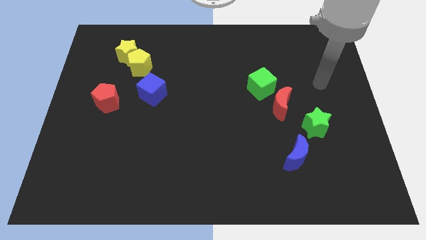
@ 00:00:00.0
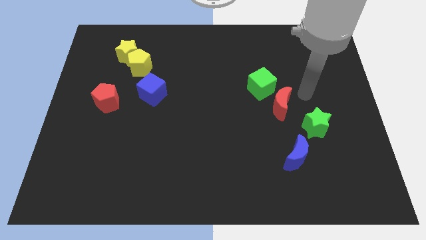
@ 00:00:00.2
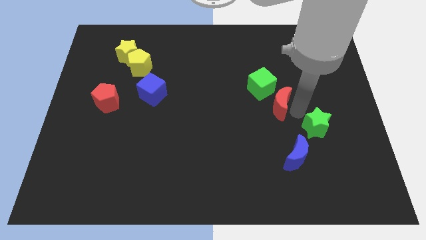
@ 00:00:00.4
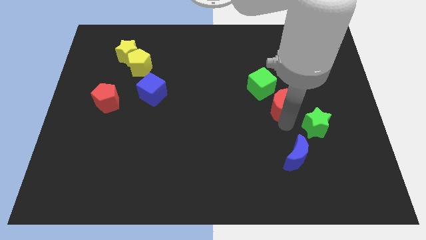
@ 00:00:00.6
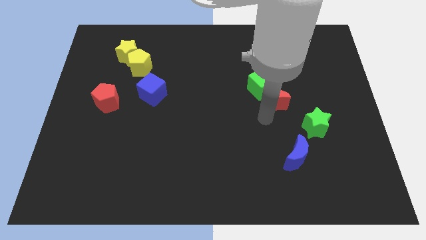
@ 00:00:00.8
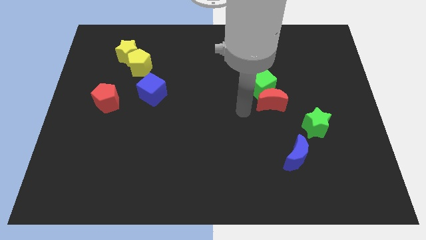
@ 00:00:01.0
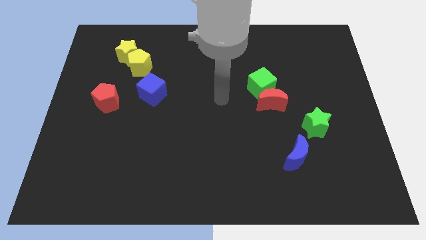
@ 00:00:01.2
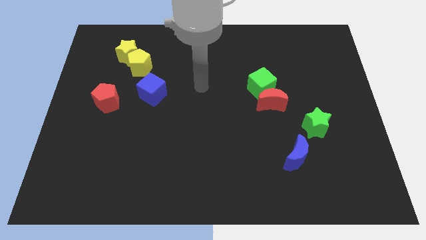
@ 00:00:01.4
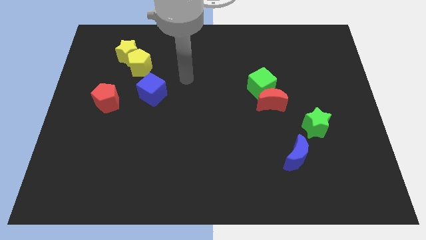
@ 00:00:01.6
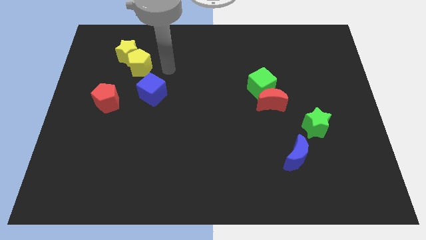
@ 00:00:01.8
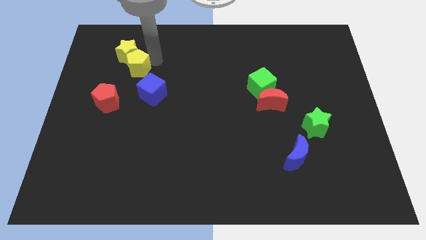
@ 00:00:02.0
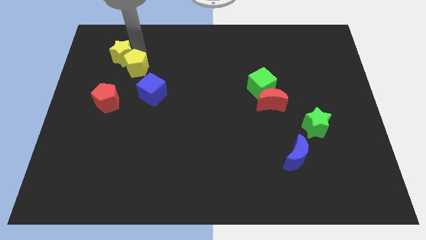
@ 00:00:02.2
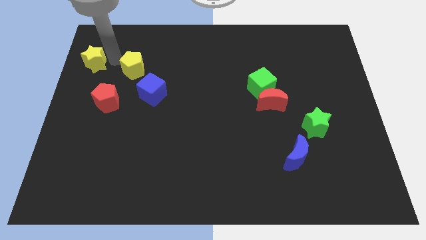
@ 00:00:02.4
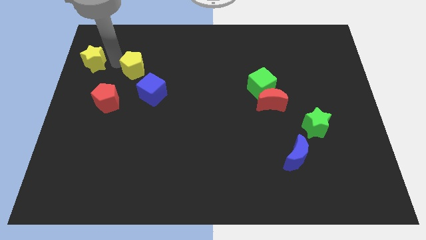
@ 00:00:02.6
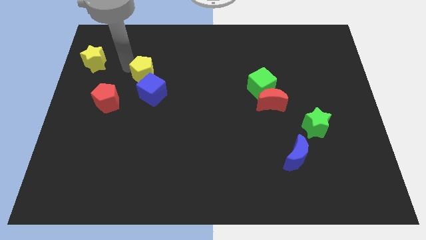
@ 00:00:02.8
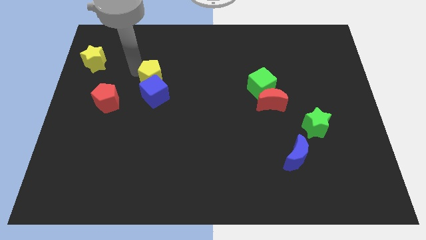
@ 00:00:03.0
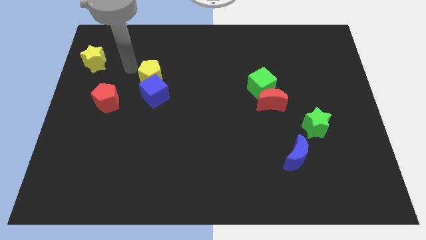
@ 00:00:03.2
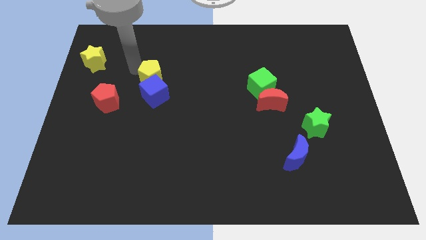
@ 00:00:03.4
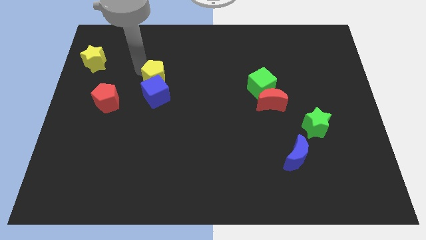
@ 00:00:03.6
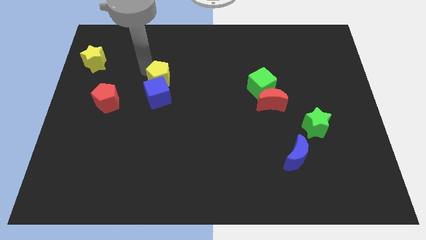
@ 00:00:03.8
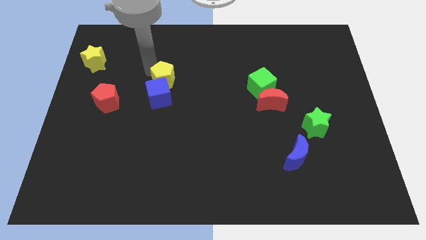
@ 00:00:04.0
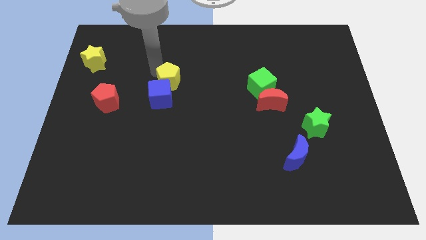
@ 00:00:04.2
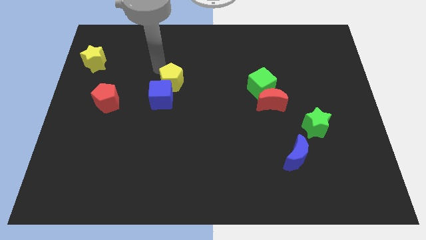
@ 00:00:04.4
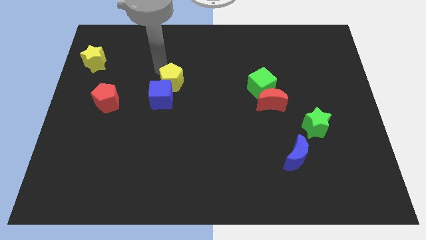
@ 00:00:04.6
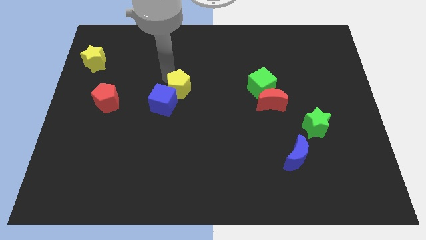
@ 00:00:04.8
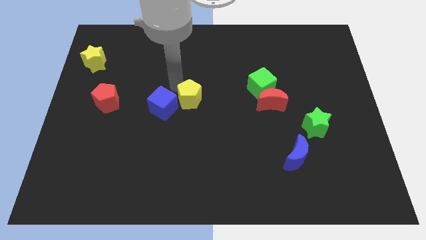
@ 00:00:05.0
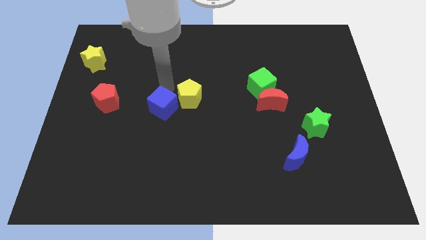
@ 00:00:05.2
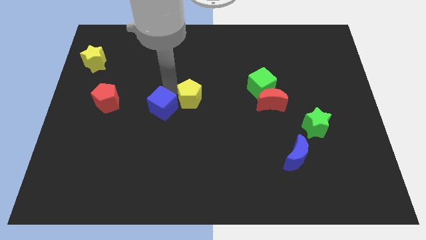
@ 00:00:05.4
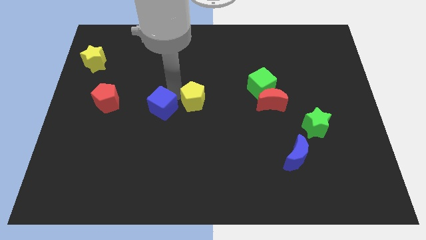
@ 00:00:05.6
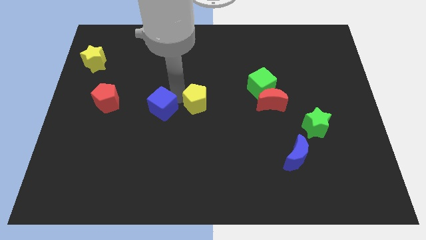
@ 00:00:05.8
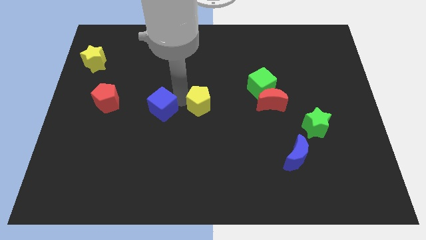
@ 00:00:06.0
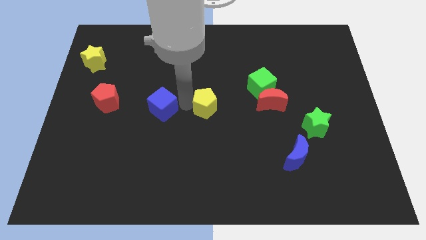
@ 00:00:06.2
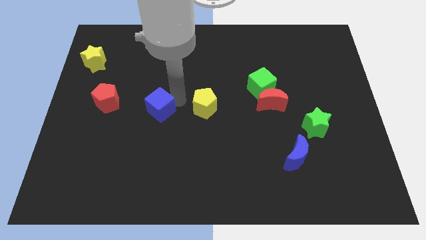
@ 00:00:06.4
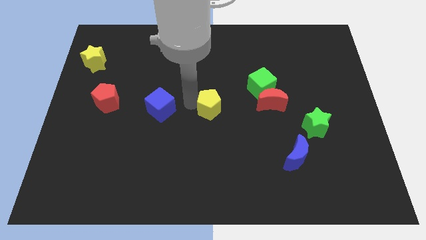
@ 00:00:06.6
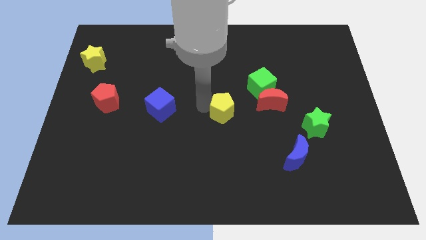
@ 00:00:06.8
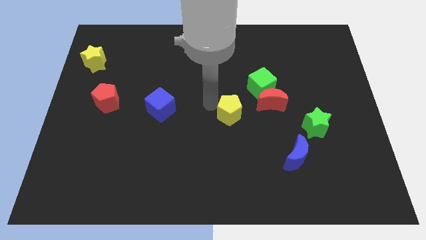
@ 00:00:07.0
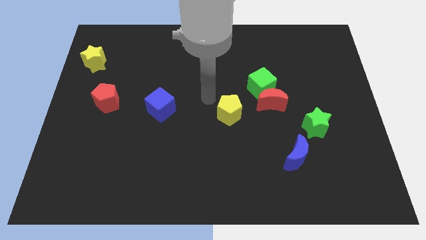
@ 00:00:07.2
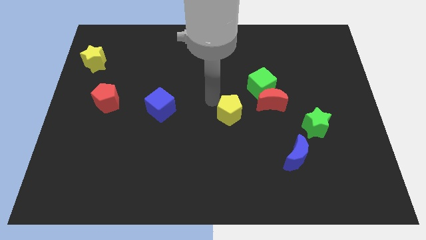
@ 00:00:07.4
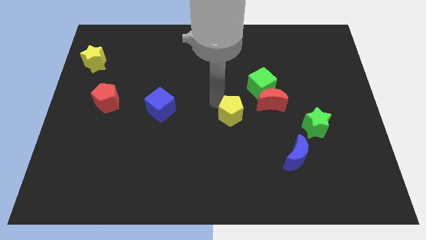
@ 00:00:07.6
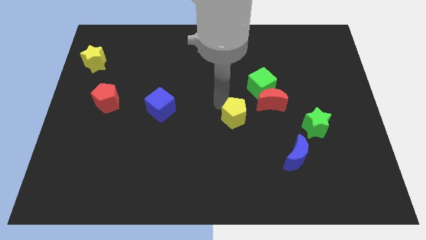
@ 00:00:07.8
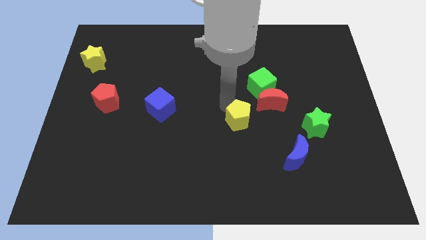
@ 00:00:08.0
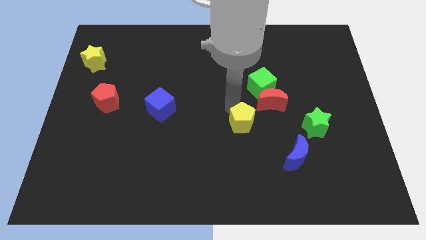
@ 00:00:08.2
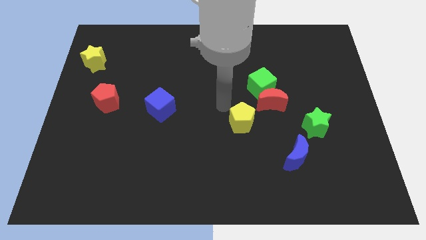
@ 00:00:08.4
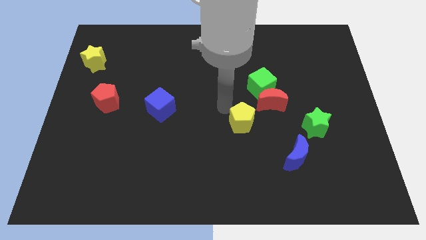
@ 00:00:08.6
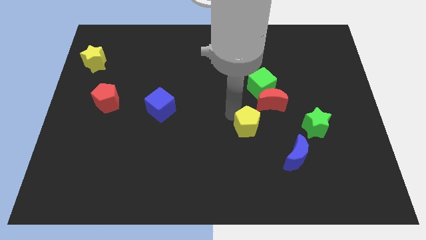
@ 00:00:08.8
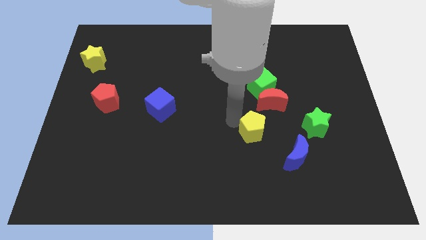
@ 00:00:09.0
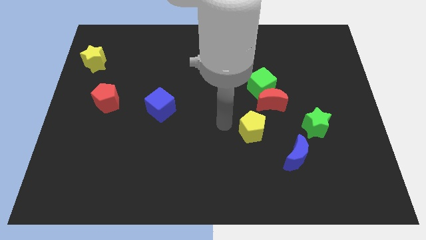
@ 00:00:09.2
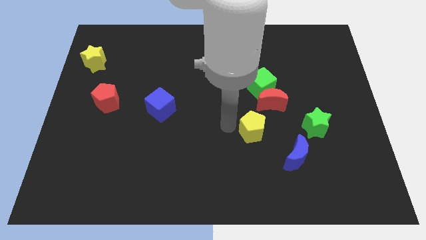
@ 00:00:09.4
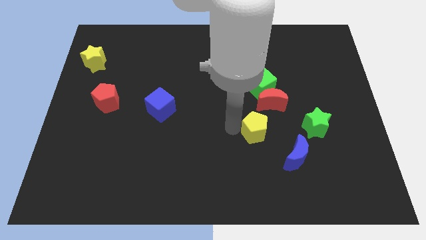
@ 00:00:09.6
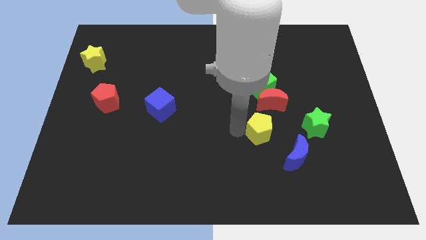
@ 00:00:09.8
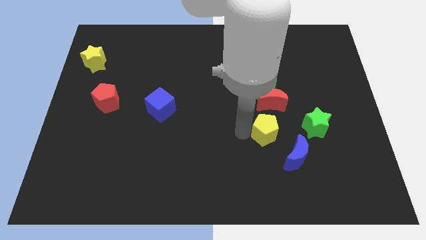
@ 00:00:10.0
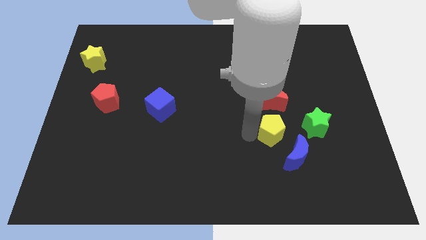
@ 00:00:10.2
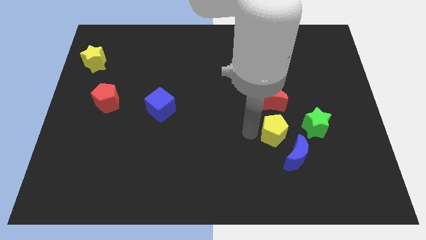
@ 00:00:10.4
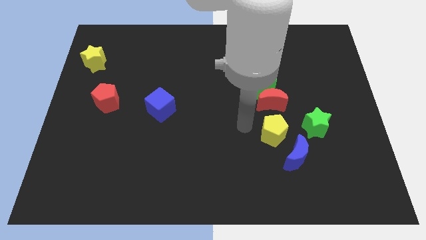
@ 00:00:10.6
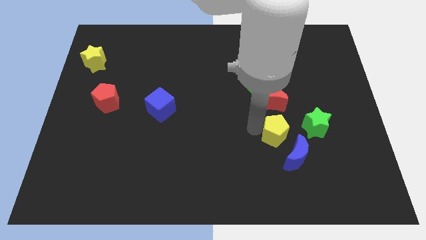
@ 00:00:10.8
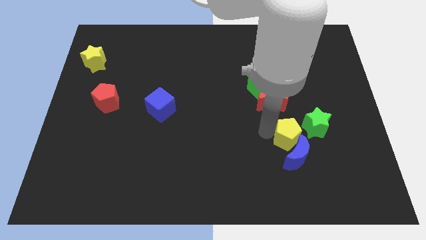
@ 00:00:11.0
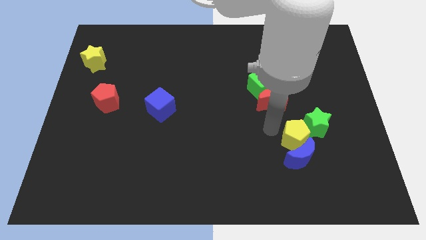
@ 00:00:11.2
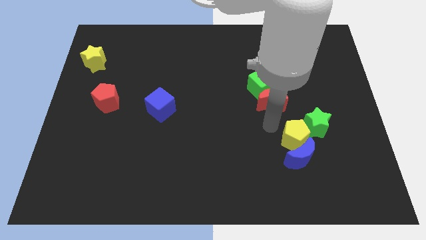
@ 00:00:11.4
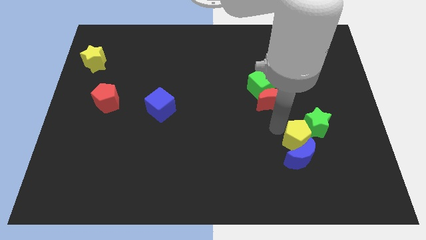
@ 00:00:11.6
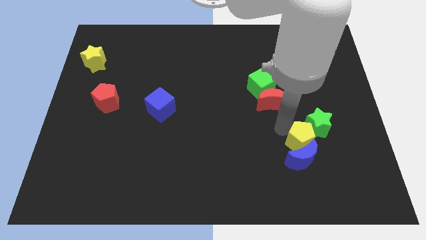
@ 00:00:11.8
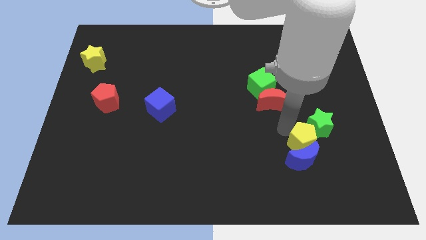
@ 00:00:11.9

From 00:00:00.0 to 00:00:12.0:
put the yellow pentagon to the bottom side of the green star

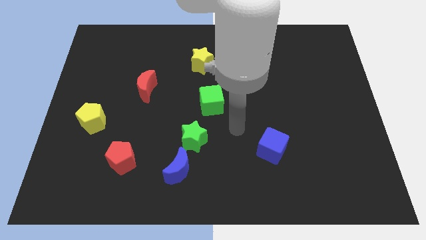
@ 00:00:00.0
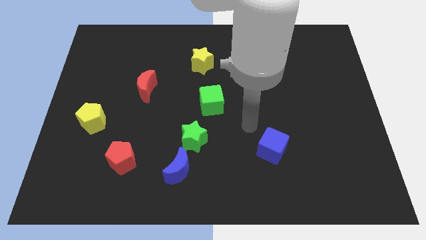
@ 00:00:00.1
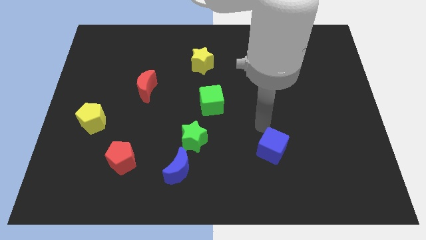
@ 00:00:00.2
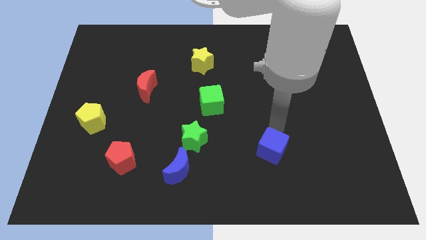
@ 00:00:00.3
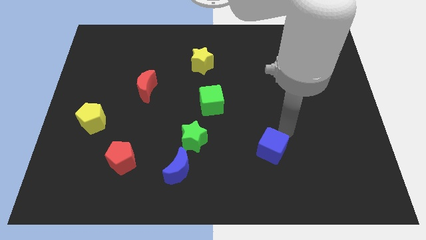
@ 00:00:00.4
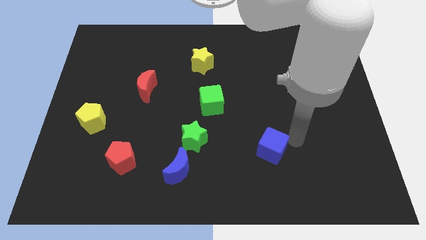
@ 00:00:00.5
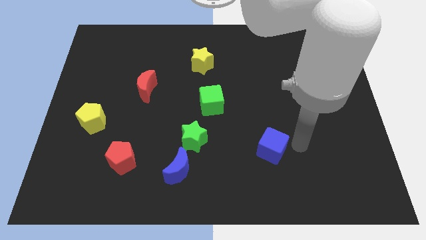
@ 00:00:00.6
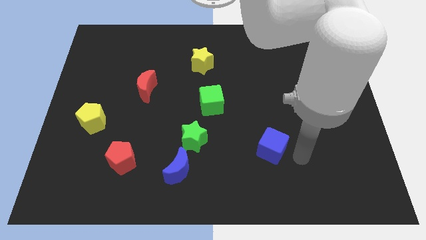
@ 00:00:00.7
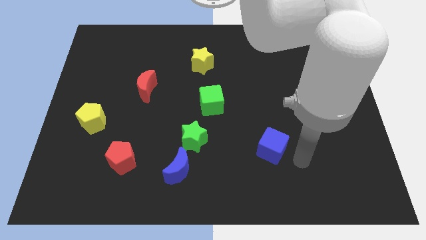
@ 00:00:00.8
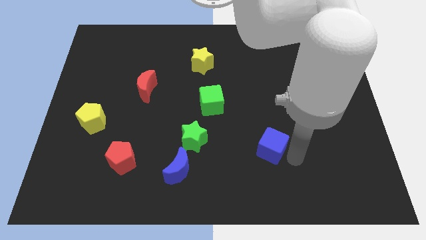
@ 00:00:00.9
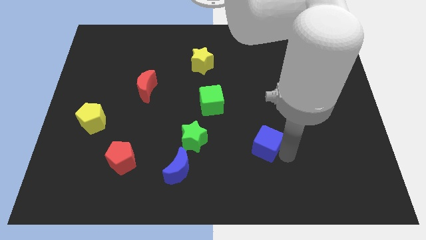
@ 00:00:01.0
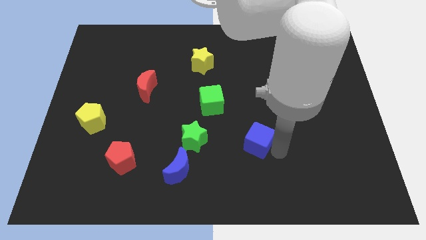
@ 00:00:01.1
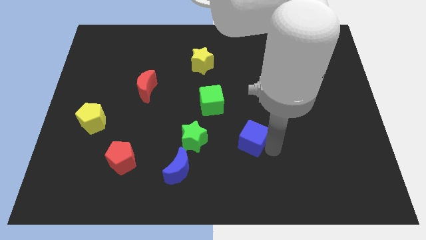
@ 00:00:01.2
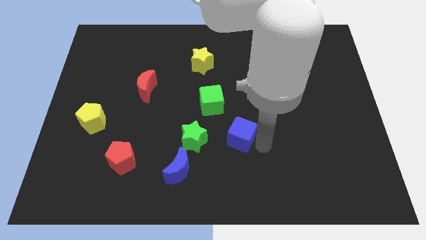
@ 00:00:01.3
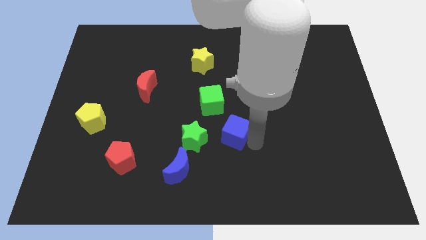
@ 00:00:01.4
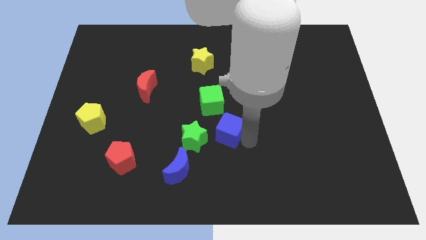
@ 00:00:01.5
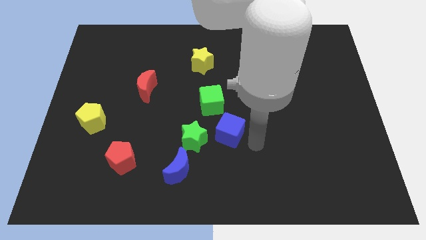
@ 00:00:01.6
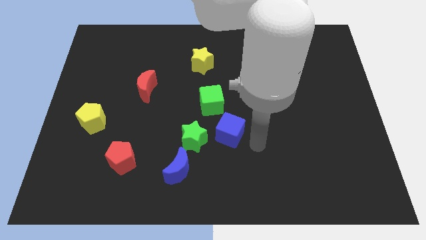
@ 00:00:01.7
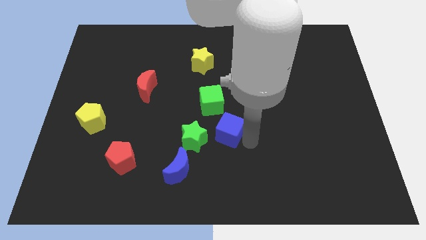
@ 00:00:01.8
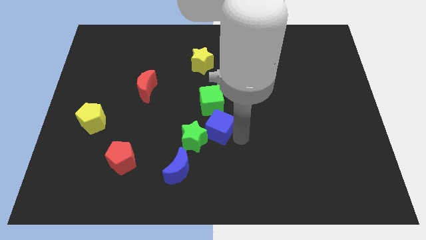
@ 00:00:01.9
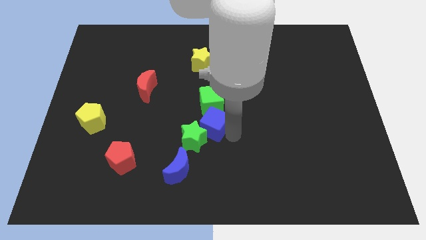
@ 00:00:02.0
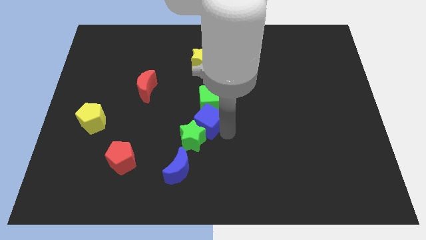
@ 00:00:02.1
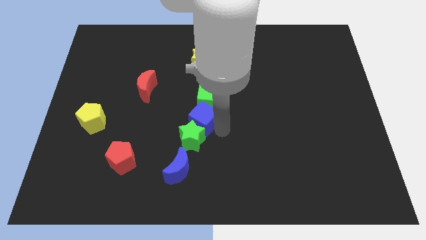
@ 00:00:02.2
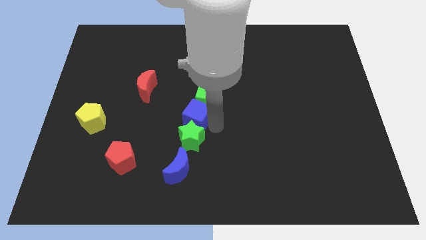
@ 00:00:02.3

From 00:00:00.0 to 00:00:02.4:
push the blue cube diagonally up and to the left of the green star
